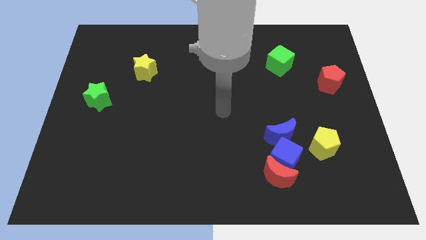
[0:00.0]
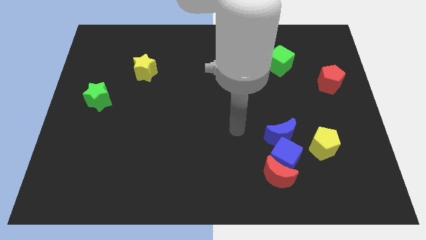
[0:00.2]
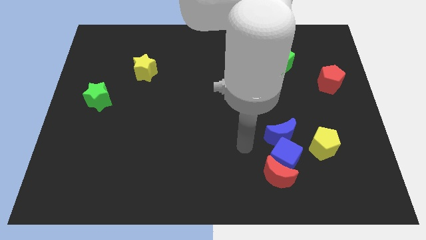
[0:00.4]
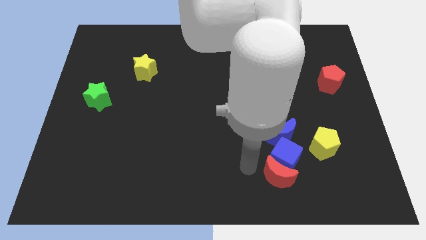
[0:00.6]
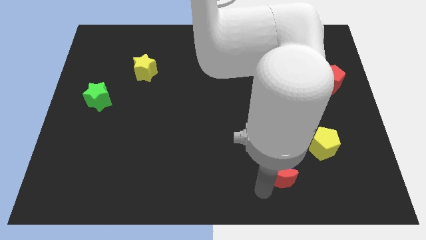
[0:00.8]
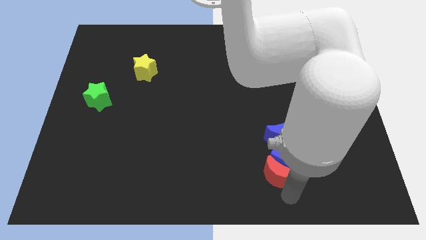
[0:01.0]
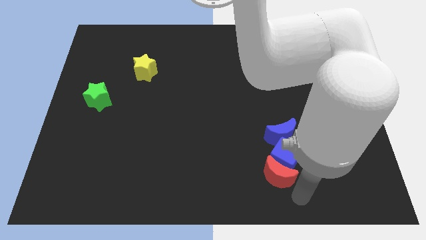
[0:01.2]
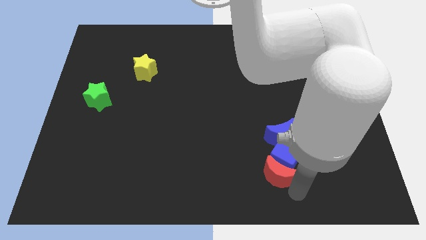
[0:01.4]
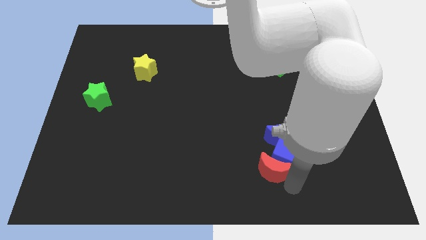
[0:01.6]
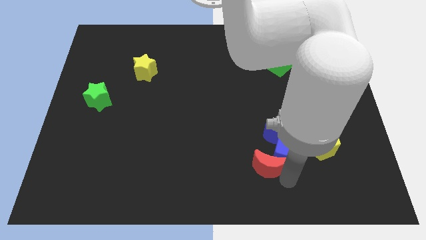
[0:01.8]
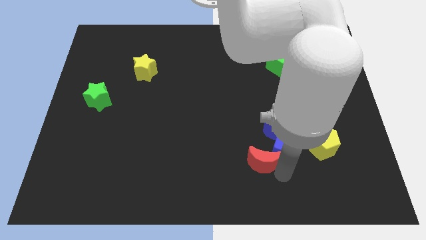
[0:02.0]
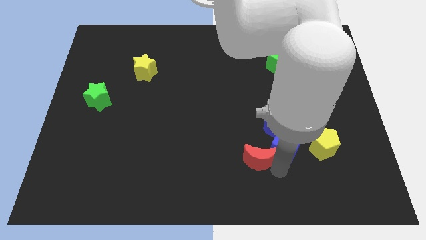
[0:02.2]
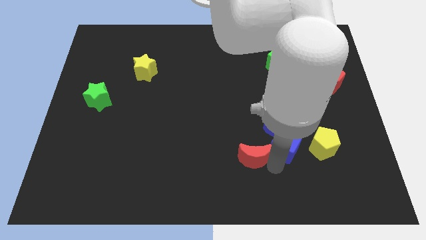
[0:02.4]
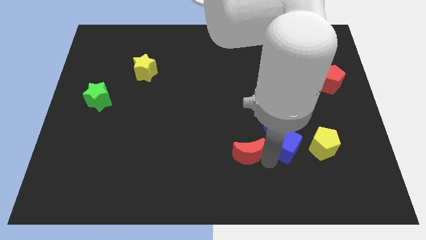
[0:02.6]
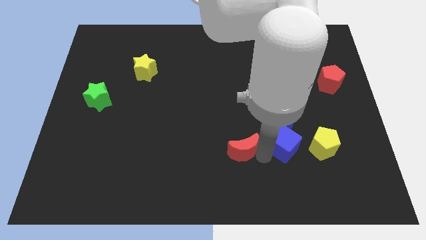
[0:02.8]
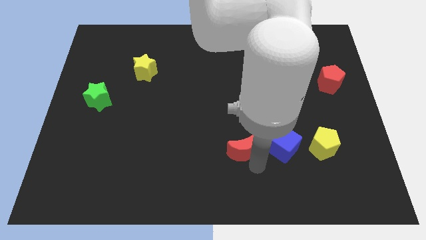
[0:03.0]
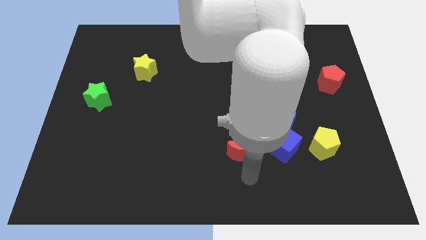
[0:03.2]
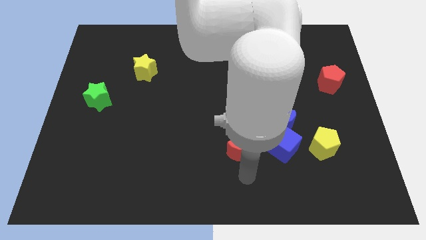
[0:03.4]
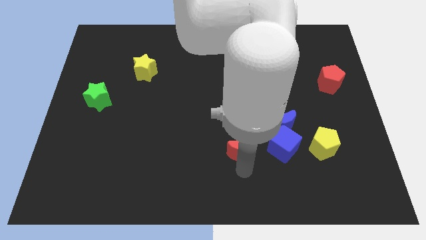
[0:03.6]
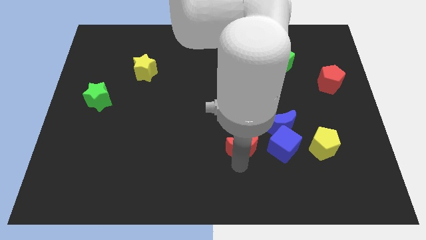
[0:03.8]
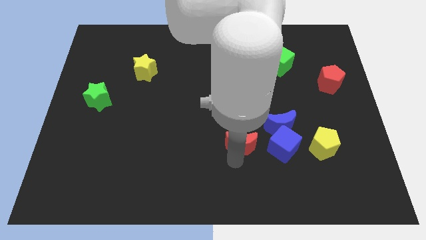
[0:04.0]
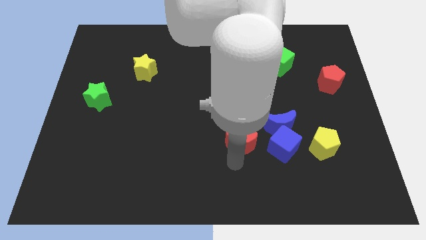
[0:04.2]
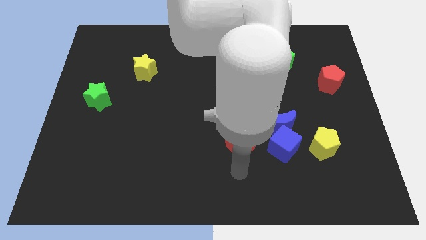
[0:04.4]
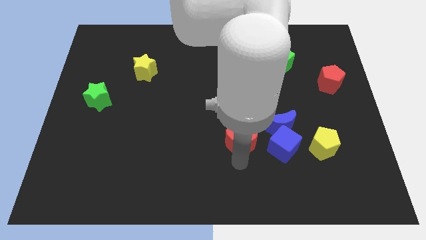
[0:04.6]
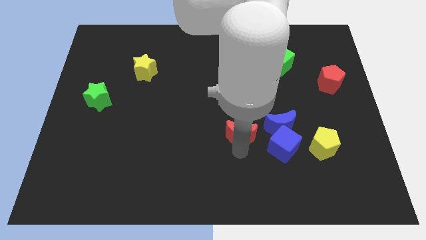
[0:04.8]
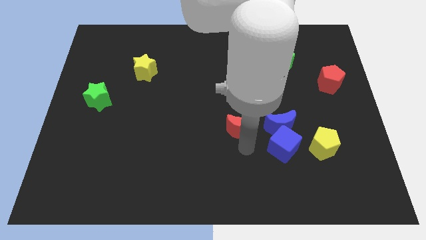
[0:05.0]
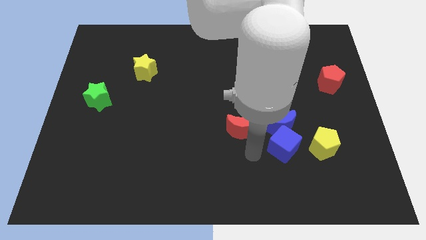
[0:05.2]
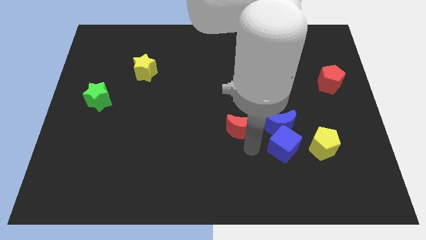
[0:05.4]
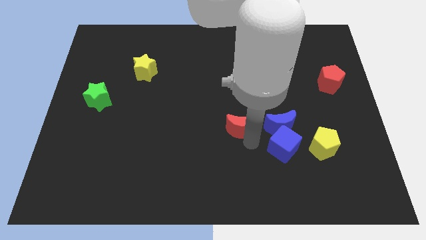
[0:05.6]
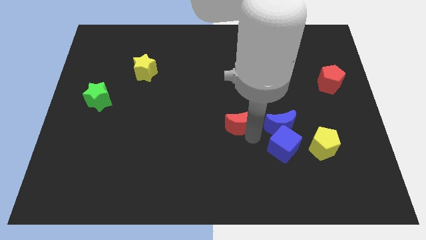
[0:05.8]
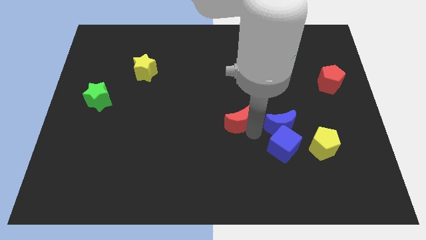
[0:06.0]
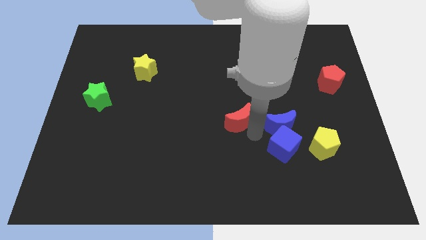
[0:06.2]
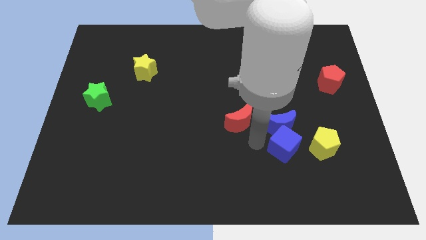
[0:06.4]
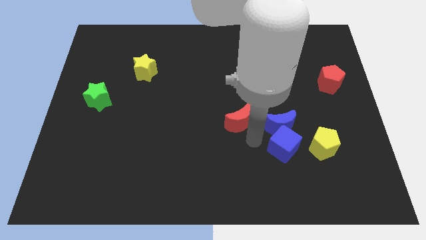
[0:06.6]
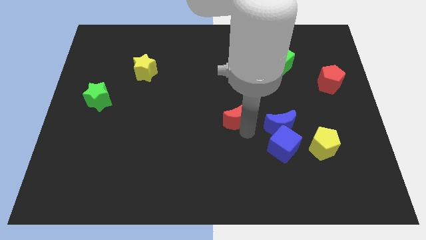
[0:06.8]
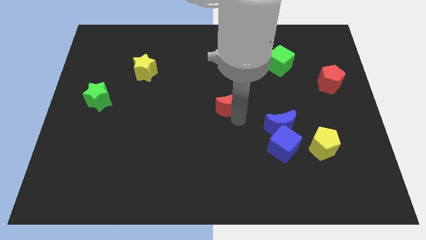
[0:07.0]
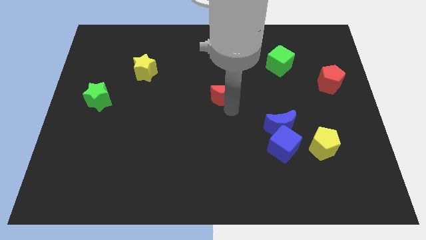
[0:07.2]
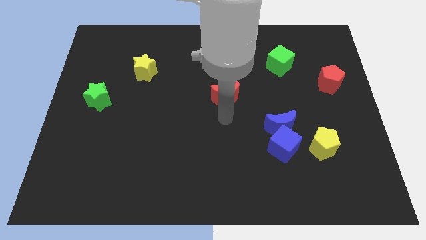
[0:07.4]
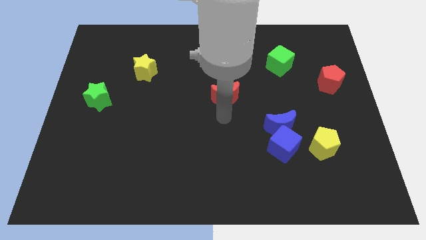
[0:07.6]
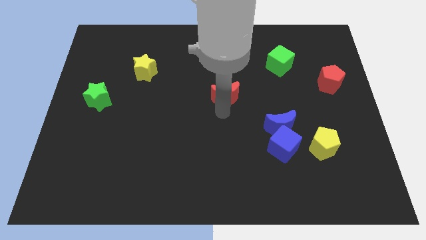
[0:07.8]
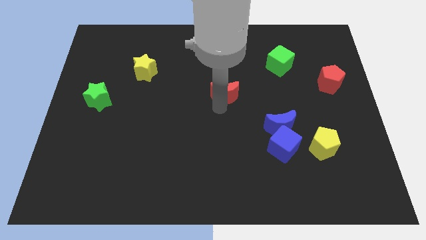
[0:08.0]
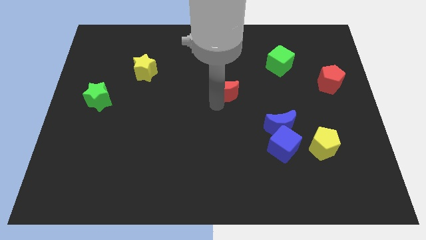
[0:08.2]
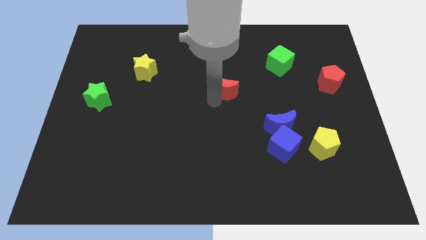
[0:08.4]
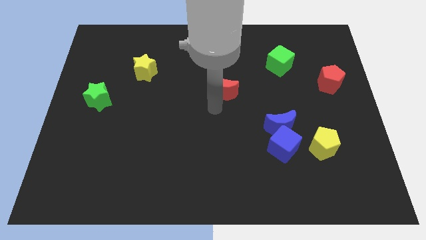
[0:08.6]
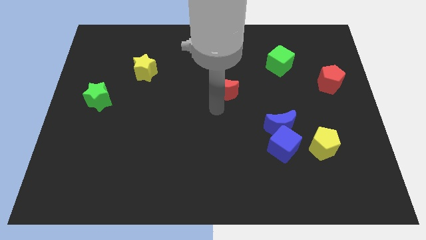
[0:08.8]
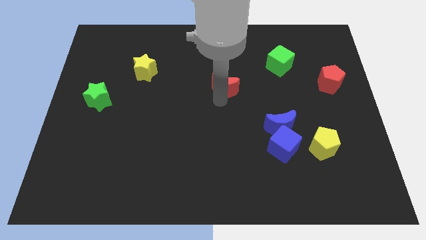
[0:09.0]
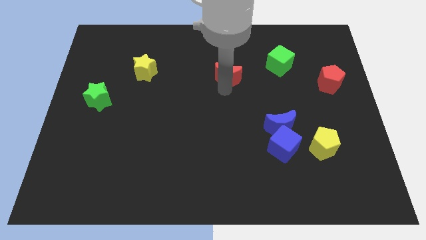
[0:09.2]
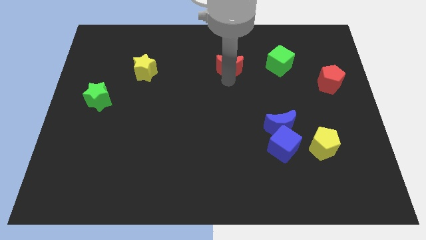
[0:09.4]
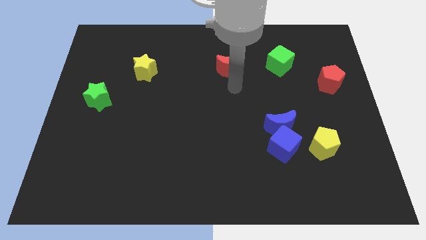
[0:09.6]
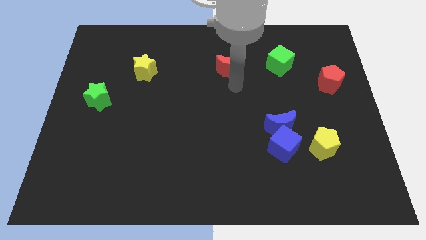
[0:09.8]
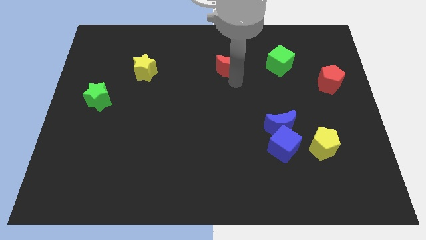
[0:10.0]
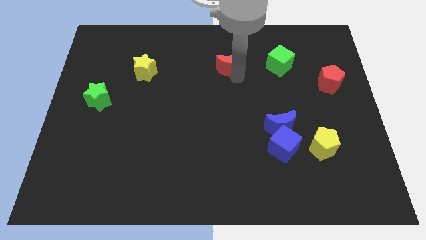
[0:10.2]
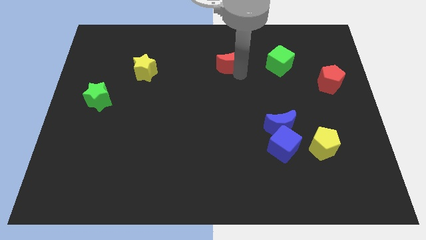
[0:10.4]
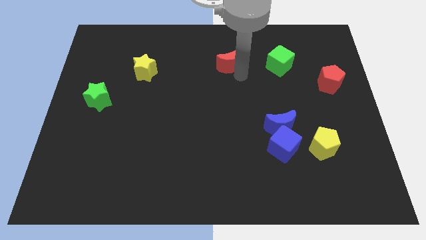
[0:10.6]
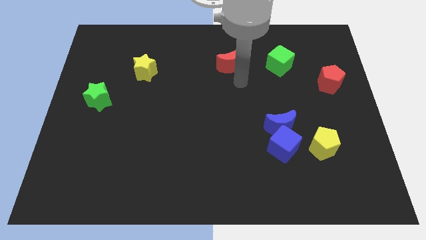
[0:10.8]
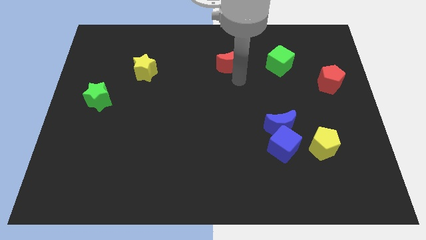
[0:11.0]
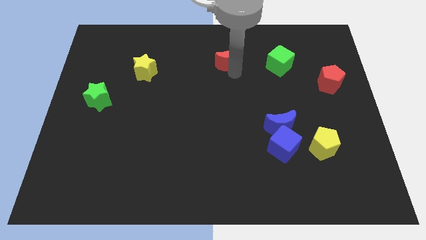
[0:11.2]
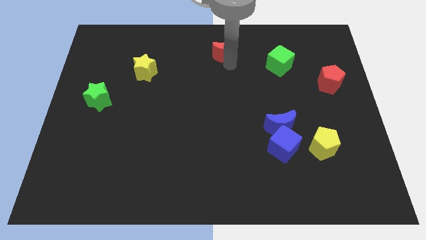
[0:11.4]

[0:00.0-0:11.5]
put the red moon to the top
